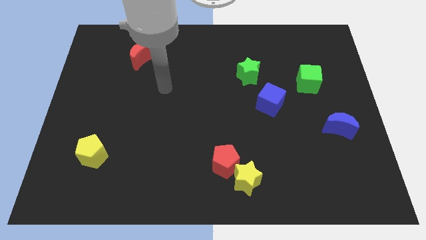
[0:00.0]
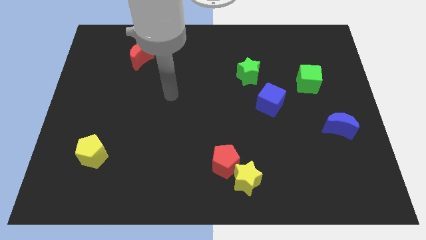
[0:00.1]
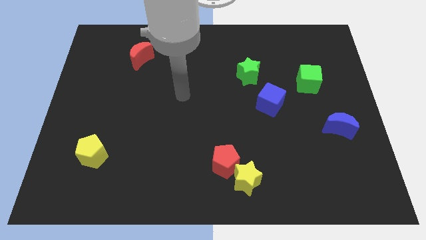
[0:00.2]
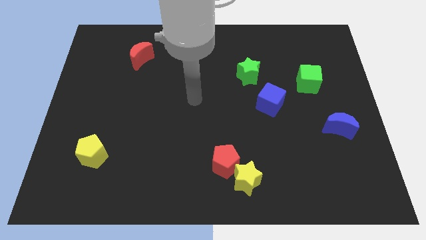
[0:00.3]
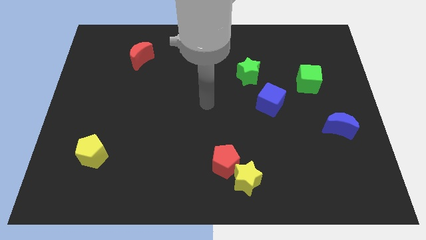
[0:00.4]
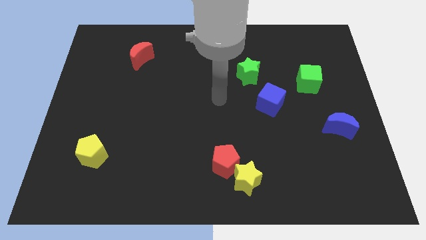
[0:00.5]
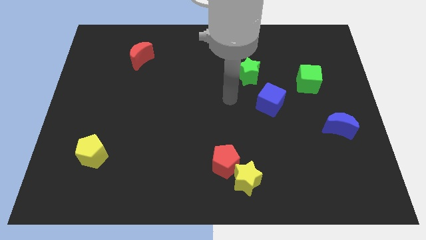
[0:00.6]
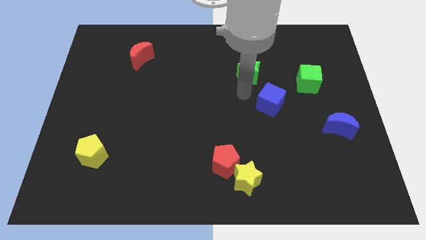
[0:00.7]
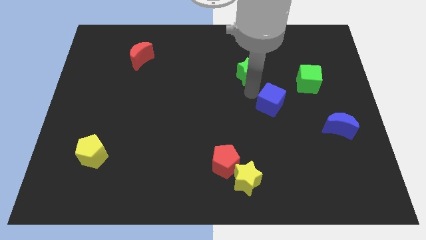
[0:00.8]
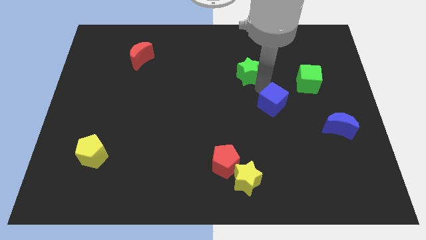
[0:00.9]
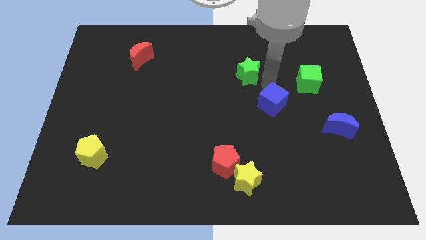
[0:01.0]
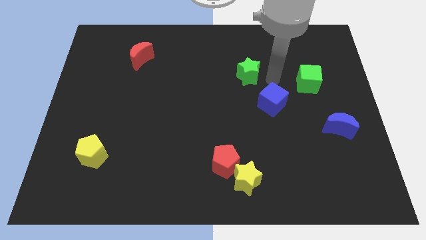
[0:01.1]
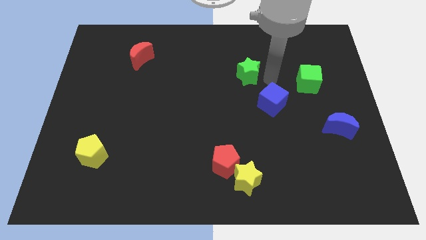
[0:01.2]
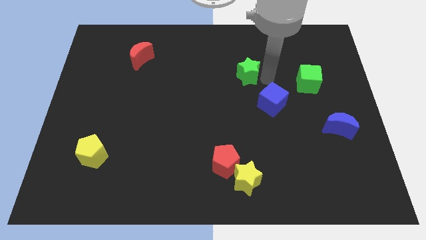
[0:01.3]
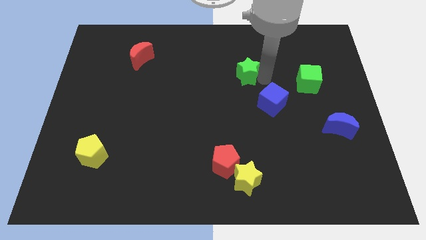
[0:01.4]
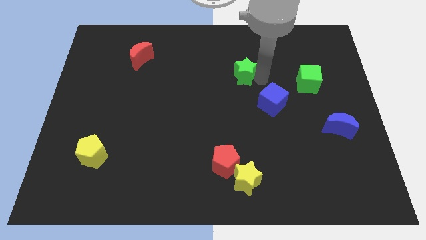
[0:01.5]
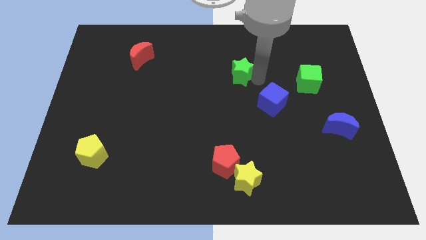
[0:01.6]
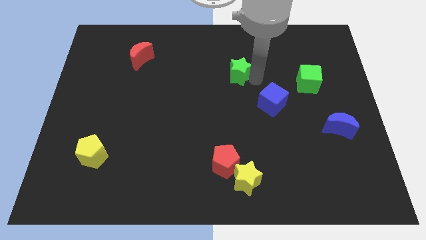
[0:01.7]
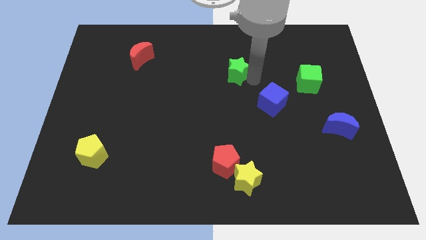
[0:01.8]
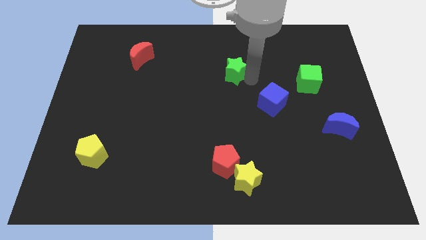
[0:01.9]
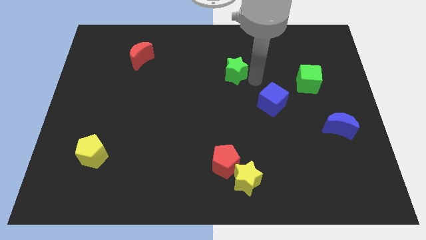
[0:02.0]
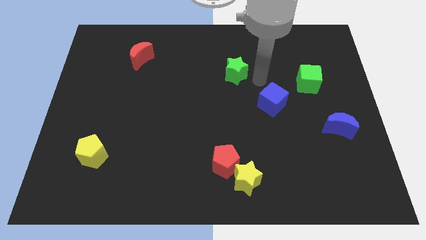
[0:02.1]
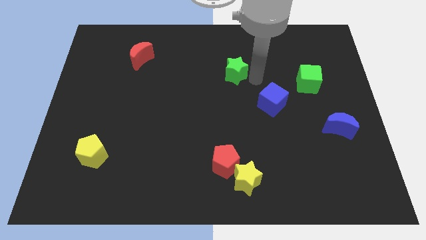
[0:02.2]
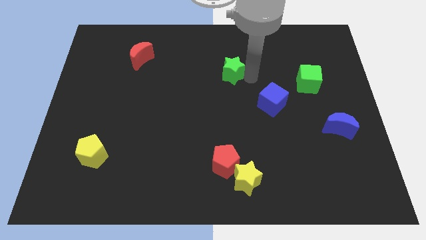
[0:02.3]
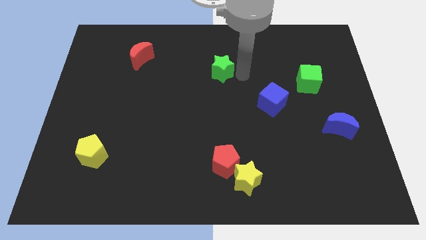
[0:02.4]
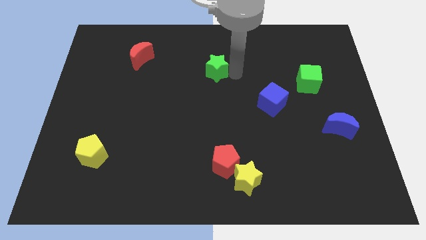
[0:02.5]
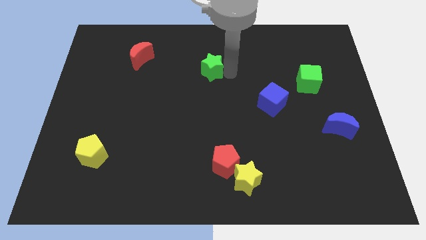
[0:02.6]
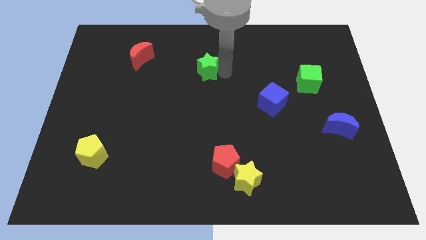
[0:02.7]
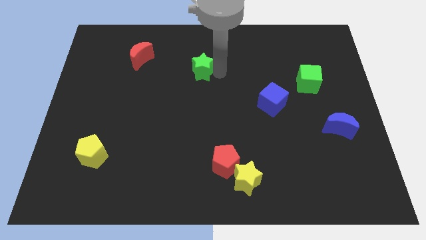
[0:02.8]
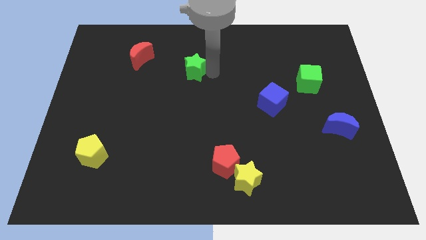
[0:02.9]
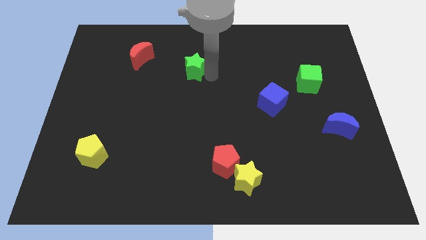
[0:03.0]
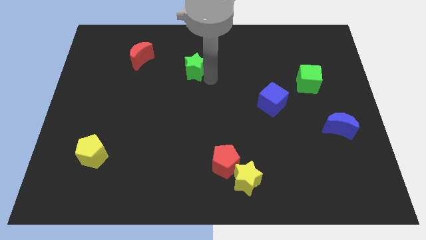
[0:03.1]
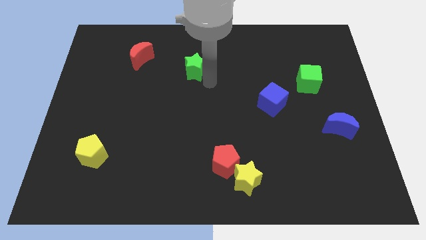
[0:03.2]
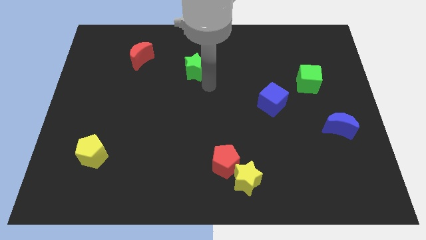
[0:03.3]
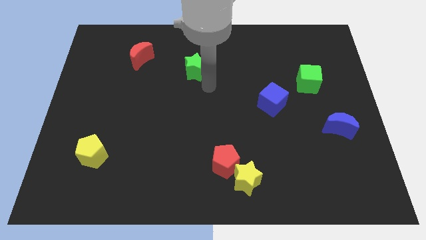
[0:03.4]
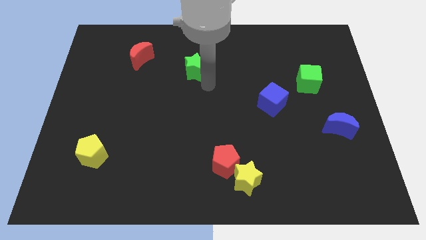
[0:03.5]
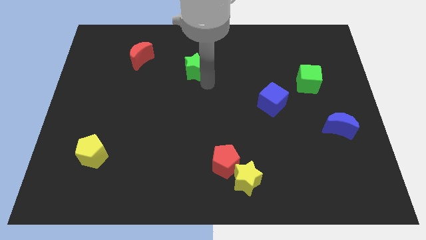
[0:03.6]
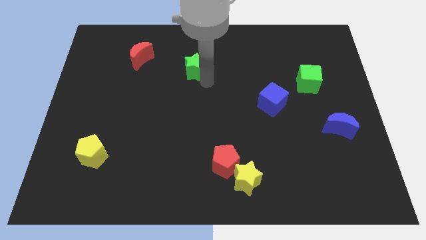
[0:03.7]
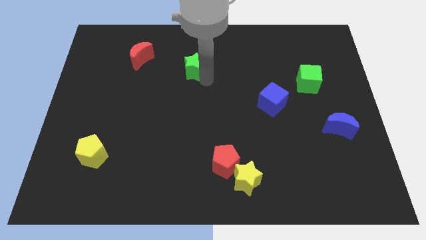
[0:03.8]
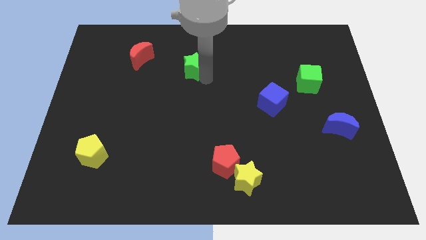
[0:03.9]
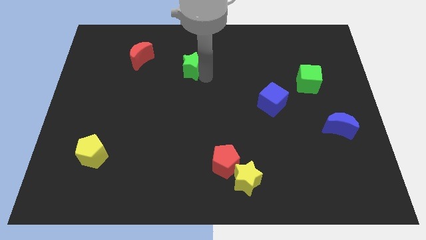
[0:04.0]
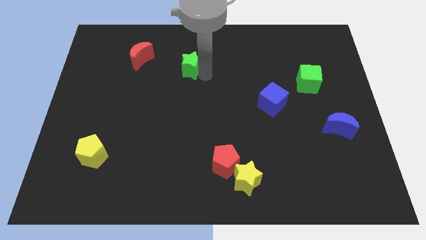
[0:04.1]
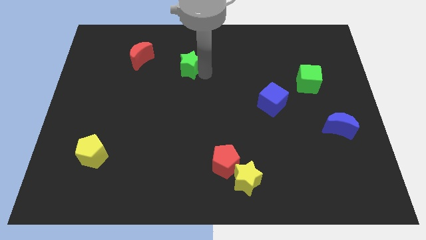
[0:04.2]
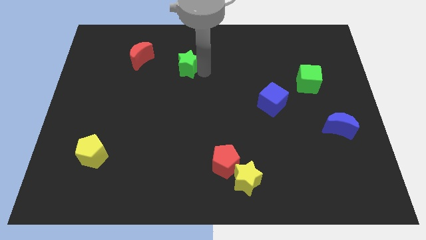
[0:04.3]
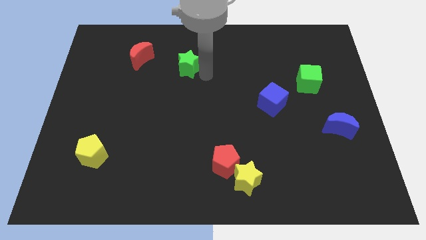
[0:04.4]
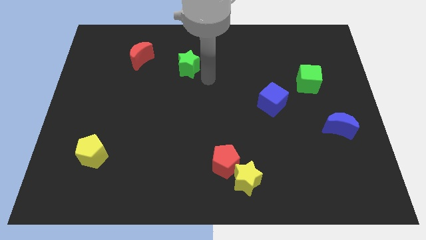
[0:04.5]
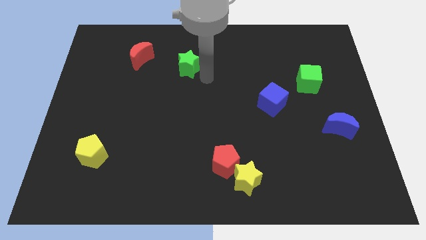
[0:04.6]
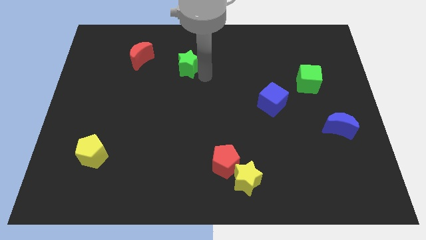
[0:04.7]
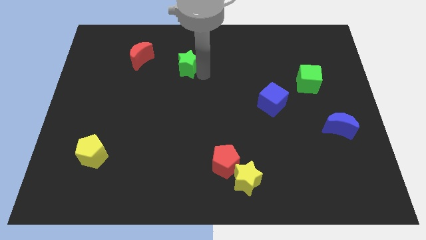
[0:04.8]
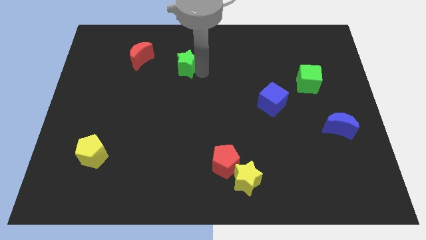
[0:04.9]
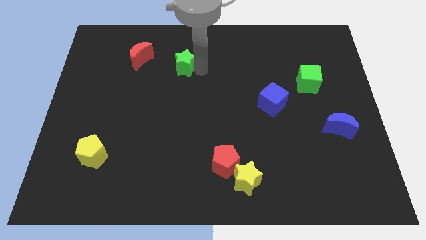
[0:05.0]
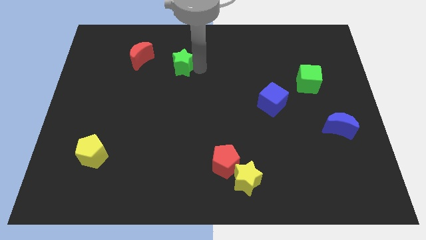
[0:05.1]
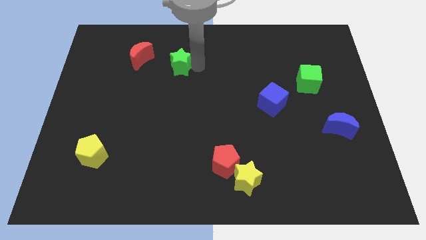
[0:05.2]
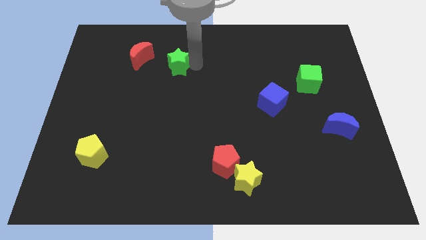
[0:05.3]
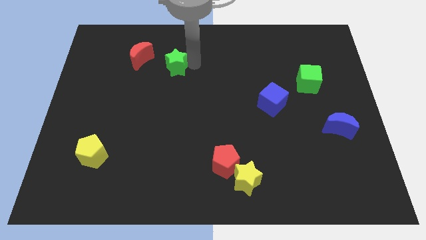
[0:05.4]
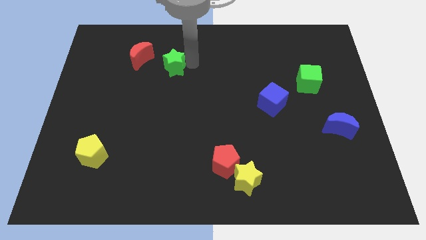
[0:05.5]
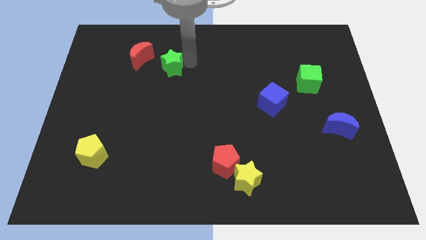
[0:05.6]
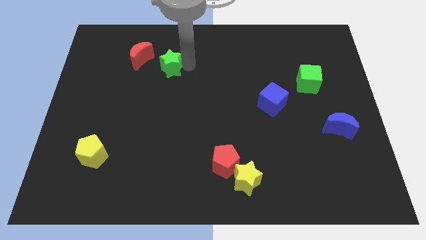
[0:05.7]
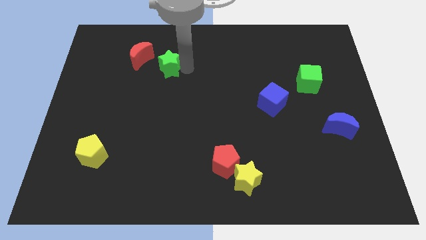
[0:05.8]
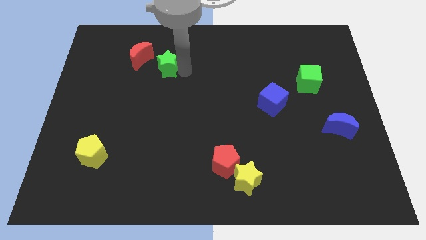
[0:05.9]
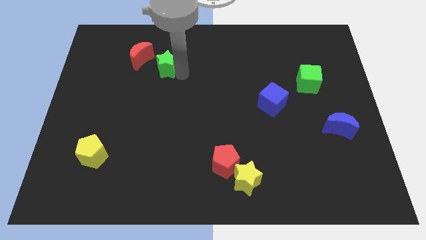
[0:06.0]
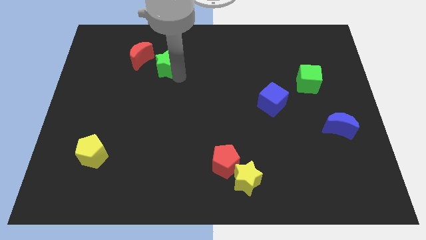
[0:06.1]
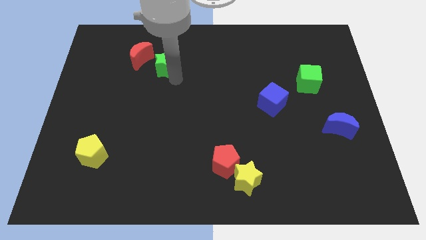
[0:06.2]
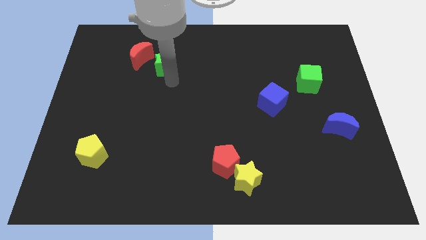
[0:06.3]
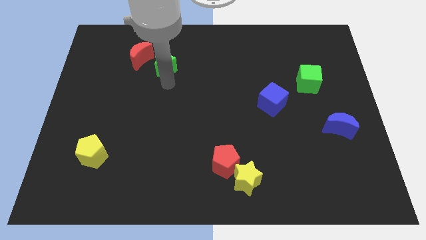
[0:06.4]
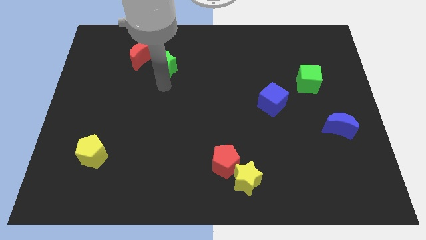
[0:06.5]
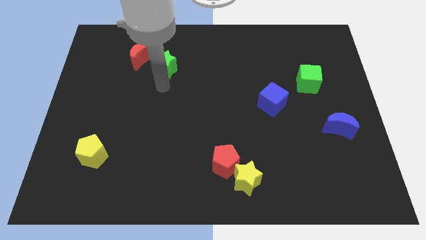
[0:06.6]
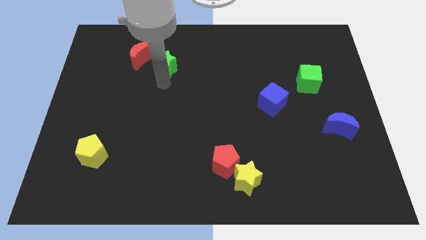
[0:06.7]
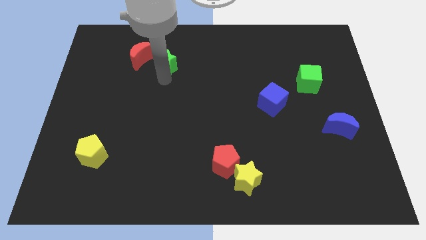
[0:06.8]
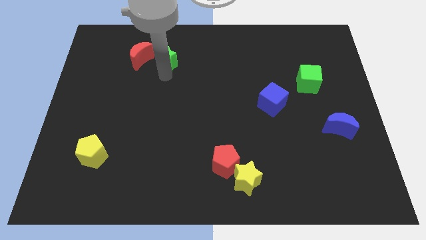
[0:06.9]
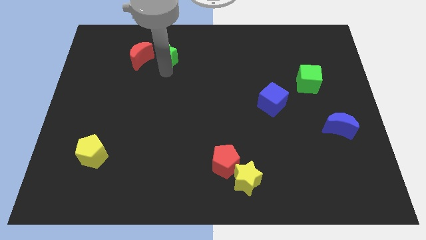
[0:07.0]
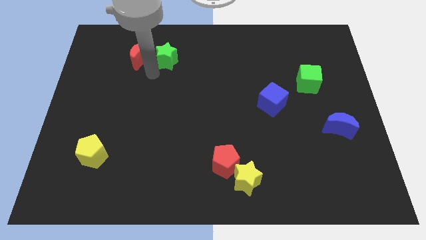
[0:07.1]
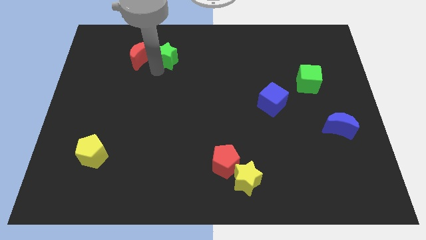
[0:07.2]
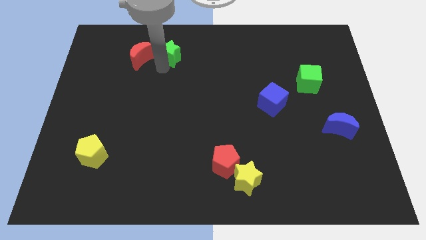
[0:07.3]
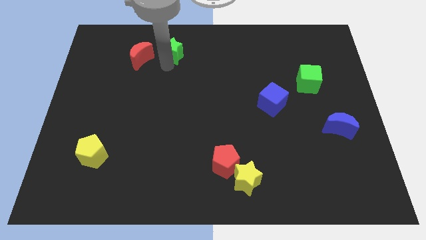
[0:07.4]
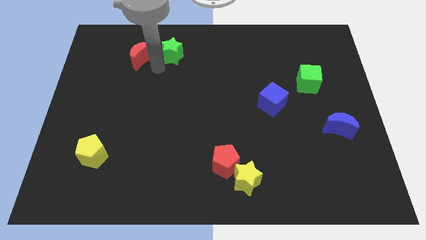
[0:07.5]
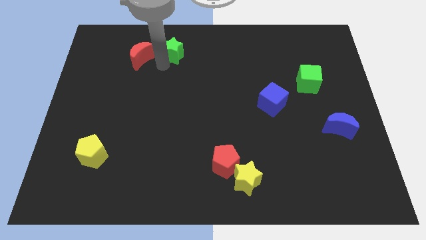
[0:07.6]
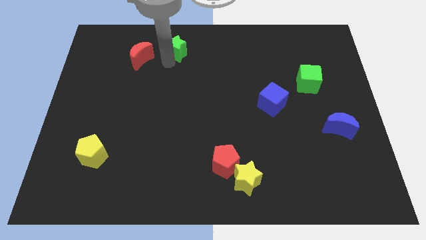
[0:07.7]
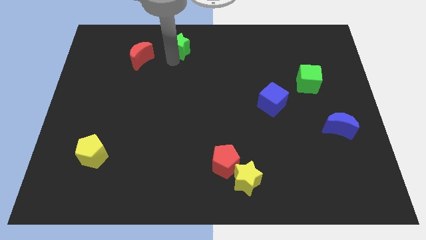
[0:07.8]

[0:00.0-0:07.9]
put the green star to the towards your base
